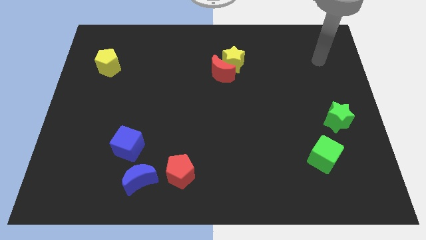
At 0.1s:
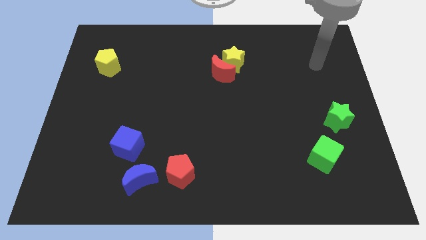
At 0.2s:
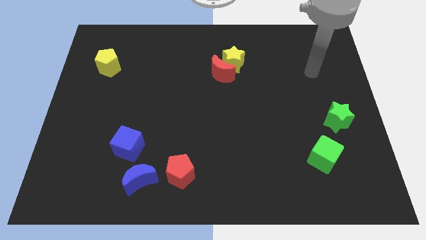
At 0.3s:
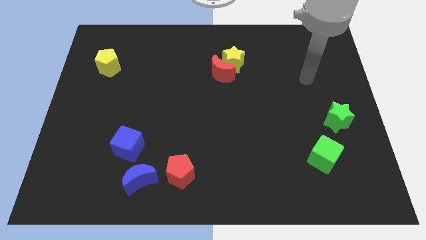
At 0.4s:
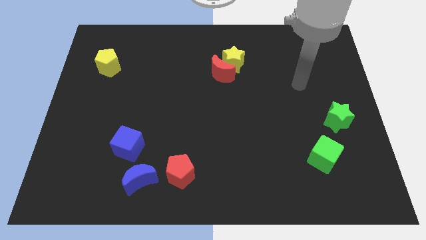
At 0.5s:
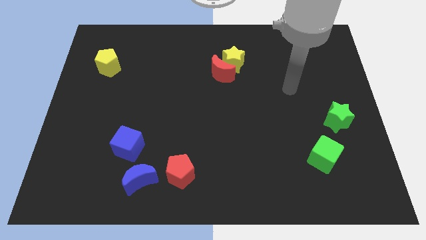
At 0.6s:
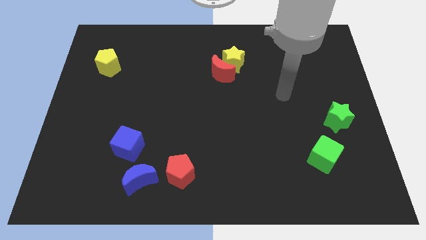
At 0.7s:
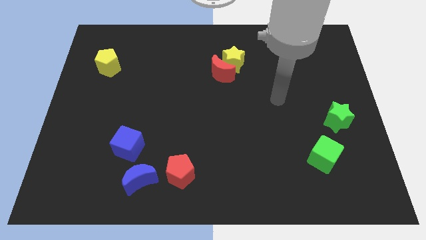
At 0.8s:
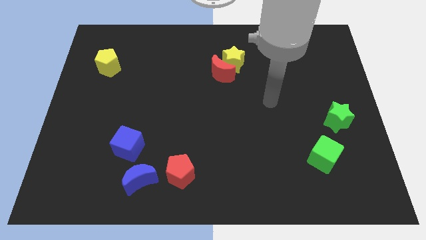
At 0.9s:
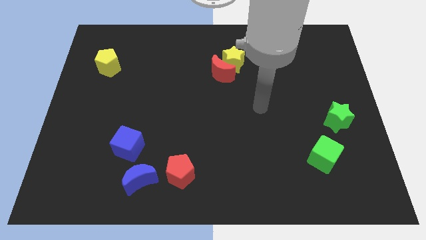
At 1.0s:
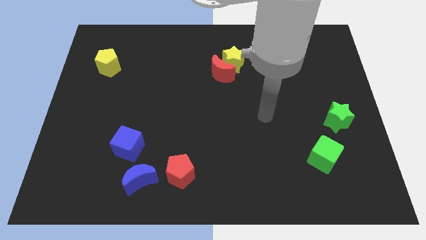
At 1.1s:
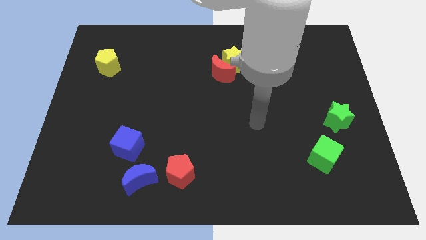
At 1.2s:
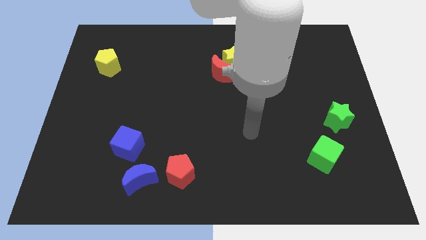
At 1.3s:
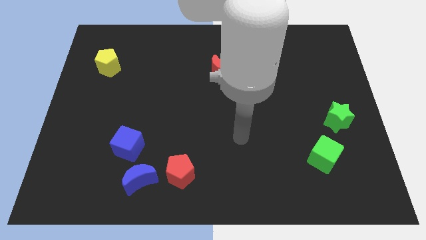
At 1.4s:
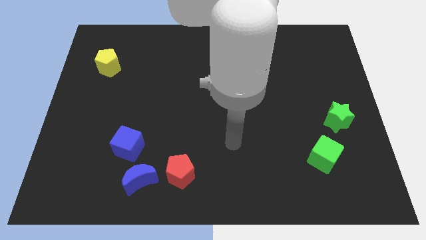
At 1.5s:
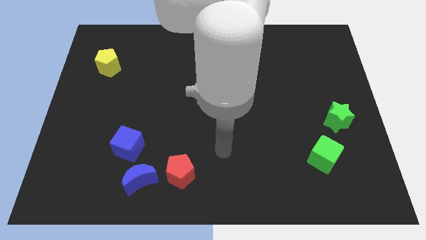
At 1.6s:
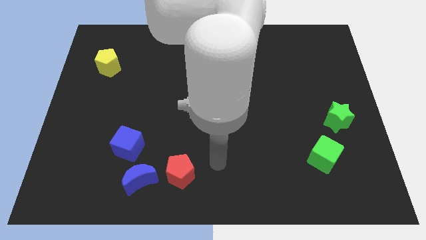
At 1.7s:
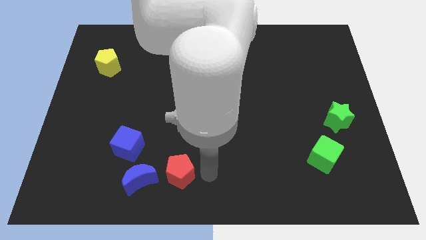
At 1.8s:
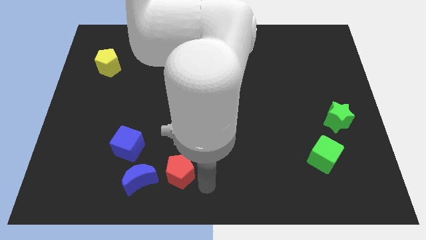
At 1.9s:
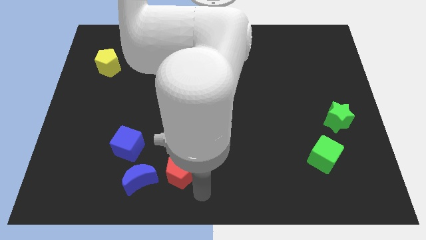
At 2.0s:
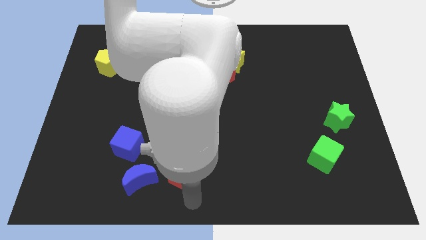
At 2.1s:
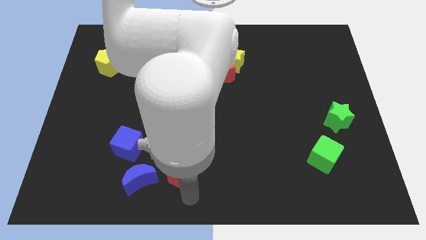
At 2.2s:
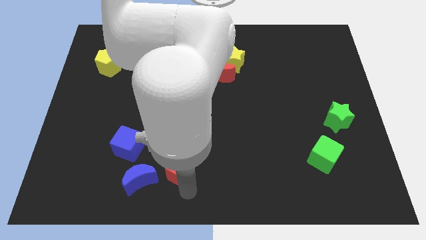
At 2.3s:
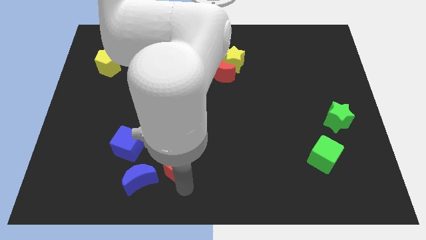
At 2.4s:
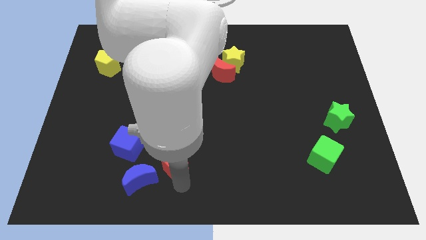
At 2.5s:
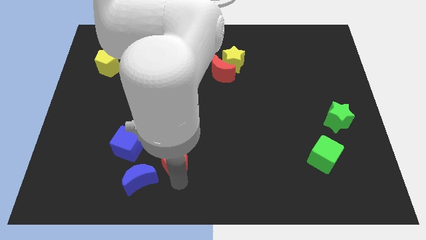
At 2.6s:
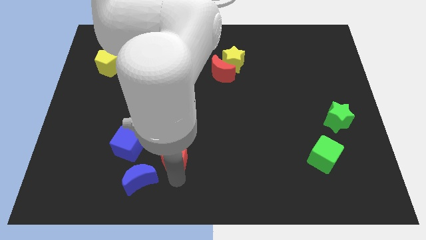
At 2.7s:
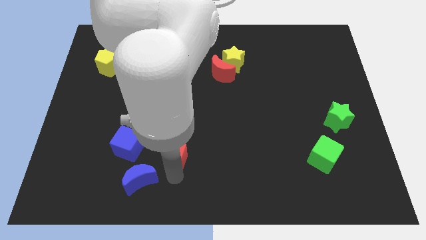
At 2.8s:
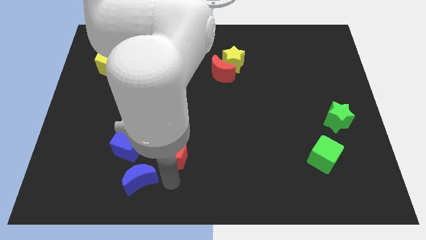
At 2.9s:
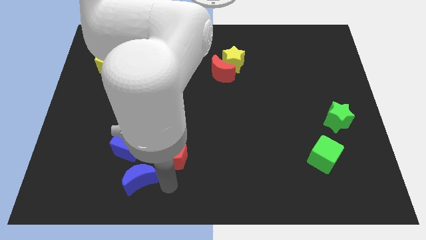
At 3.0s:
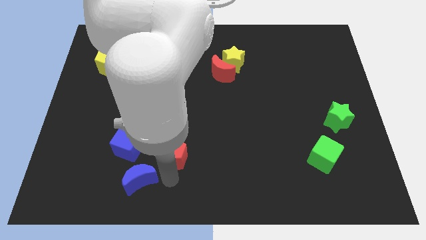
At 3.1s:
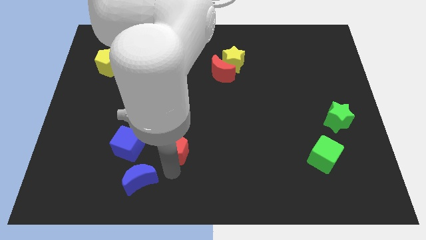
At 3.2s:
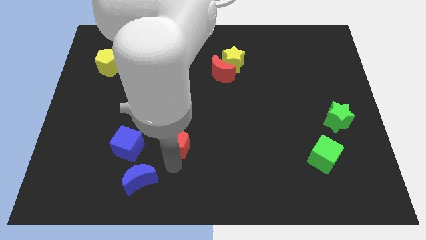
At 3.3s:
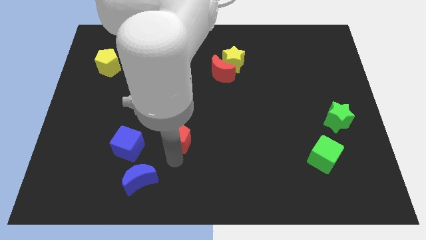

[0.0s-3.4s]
move the red pentagon a little bit upwards

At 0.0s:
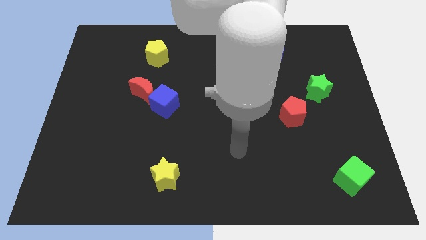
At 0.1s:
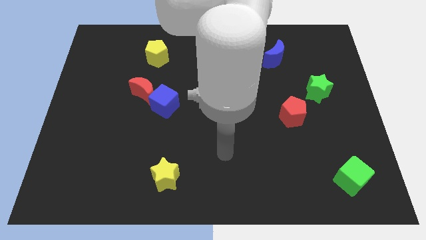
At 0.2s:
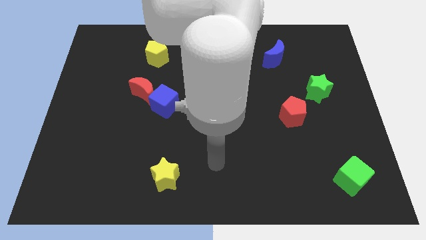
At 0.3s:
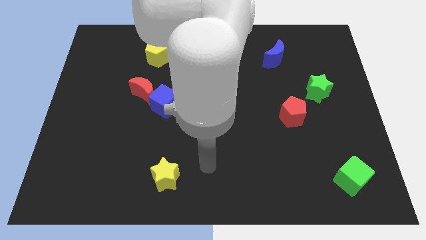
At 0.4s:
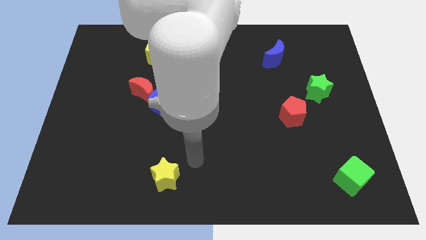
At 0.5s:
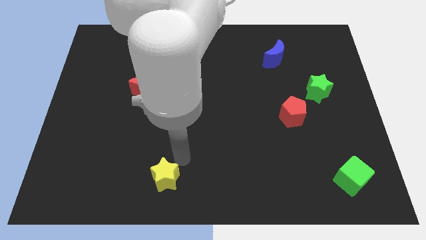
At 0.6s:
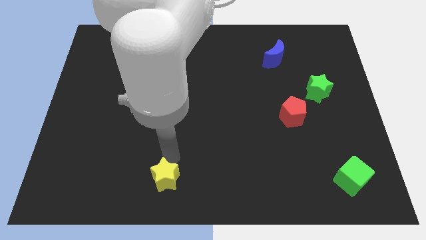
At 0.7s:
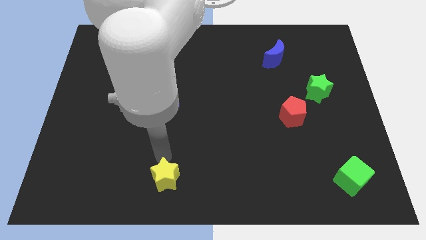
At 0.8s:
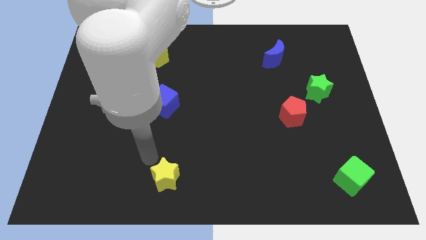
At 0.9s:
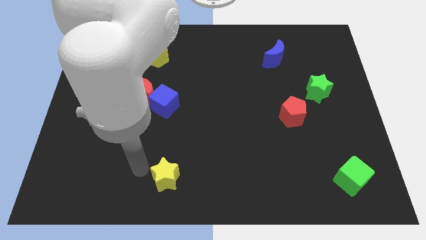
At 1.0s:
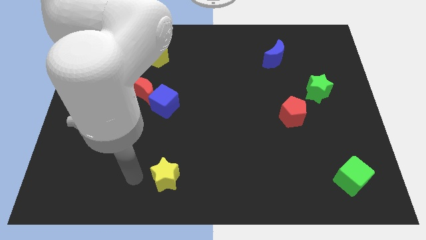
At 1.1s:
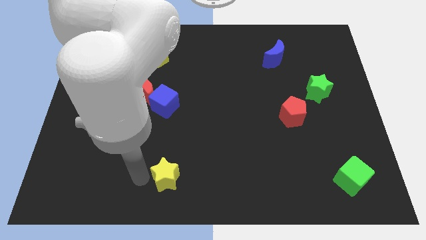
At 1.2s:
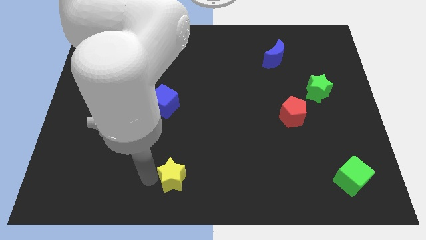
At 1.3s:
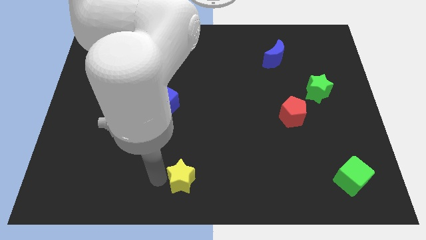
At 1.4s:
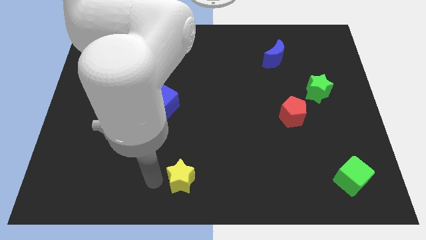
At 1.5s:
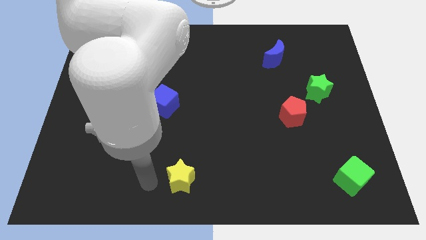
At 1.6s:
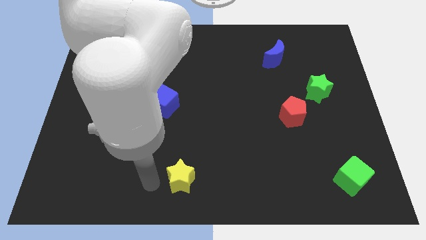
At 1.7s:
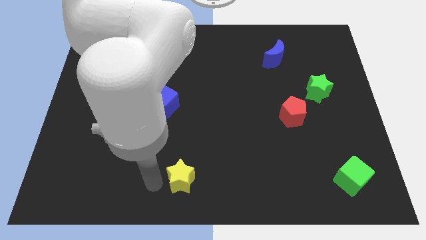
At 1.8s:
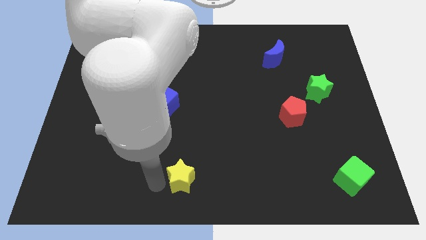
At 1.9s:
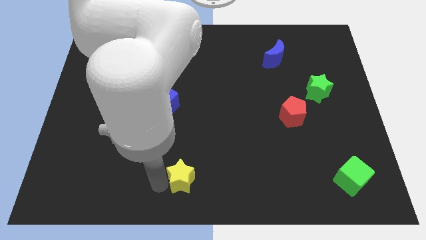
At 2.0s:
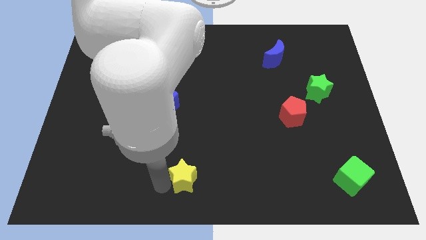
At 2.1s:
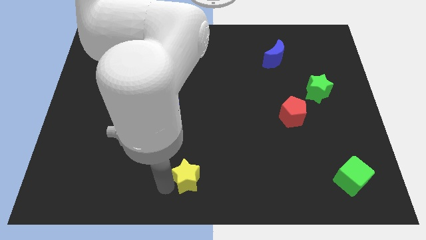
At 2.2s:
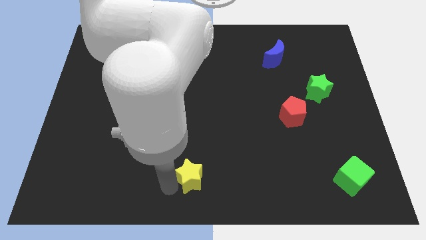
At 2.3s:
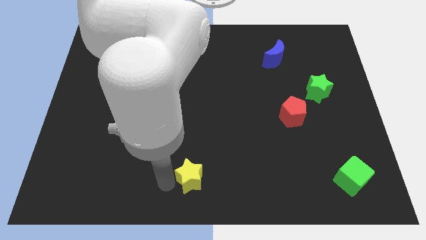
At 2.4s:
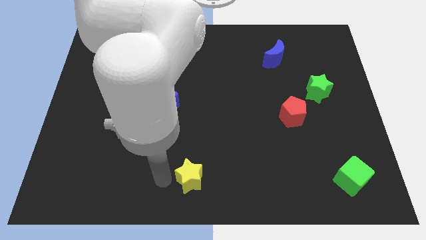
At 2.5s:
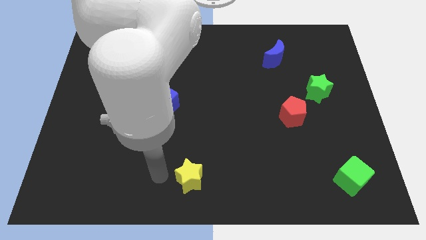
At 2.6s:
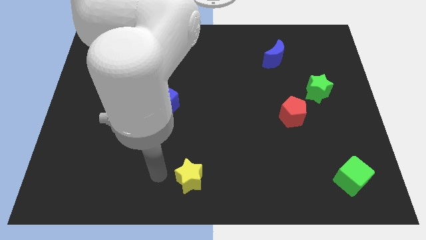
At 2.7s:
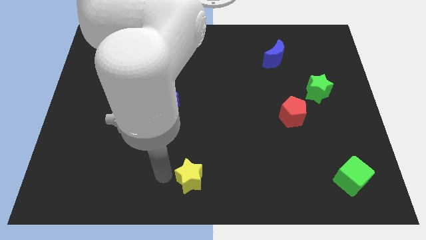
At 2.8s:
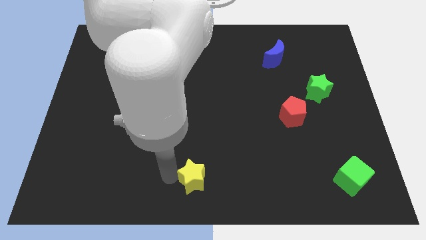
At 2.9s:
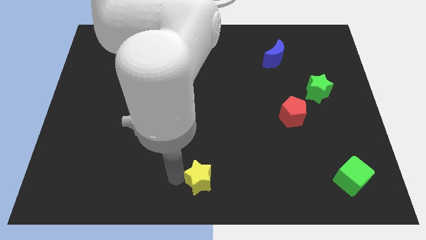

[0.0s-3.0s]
push the yellow star somewhat to the right

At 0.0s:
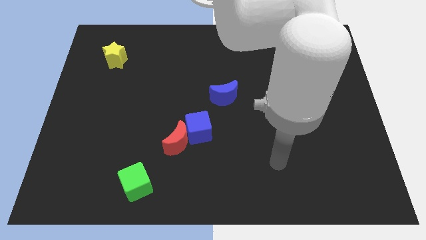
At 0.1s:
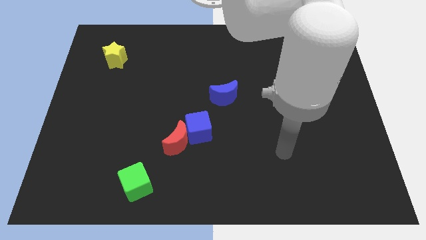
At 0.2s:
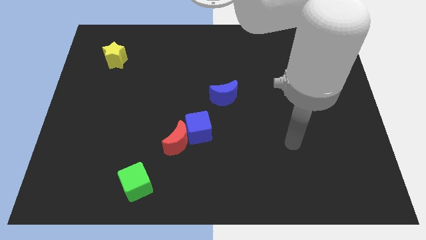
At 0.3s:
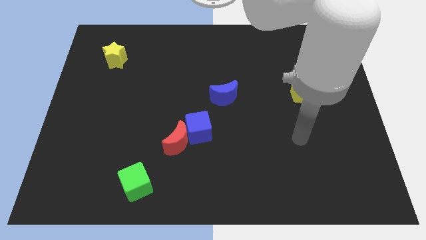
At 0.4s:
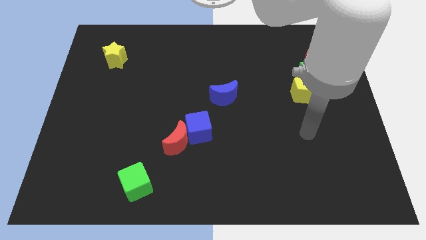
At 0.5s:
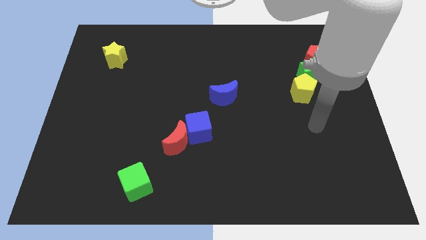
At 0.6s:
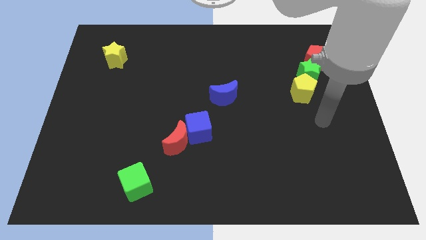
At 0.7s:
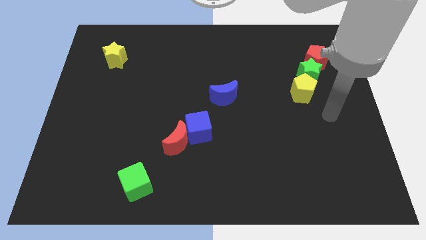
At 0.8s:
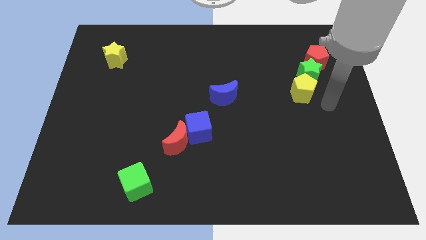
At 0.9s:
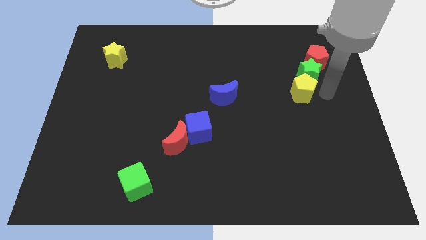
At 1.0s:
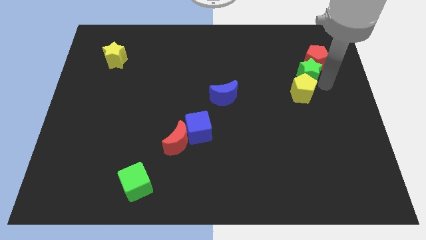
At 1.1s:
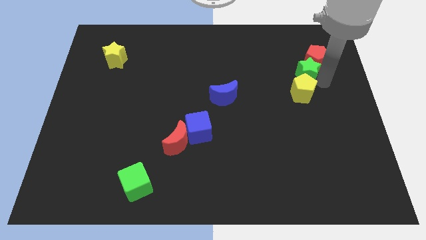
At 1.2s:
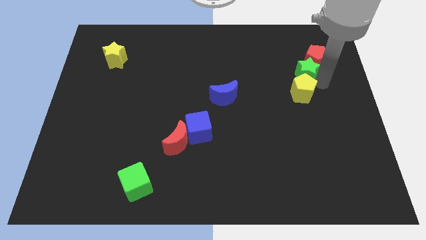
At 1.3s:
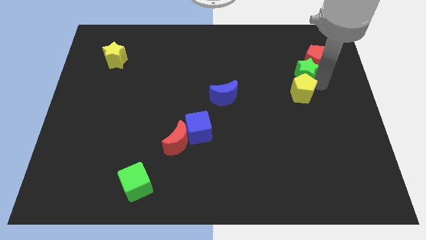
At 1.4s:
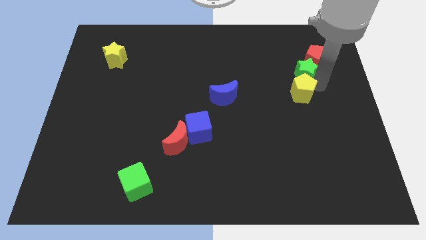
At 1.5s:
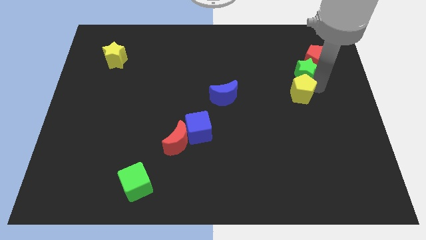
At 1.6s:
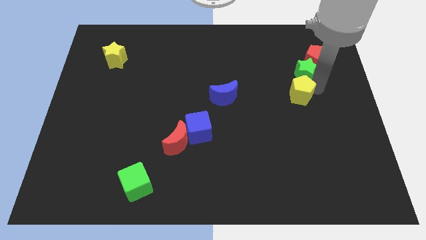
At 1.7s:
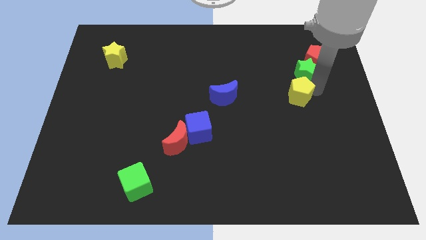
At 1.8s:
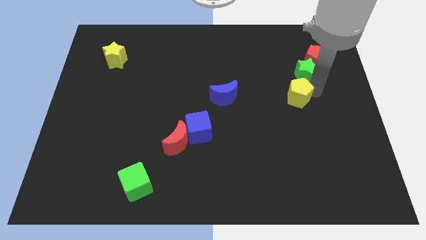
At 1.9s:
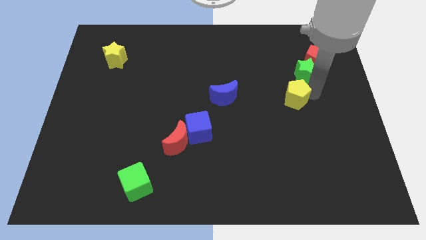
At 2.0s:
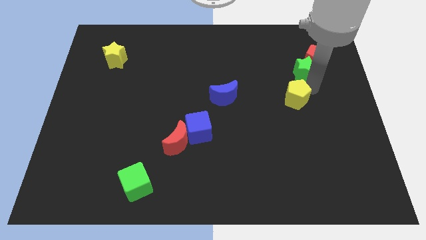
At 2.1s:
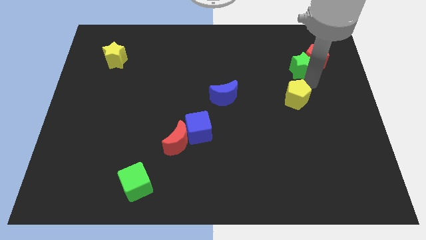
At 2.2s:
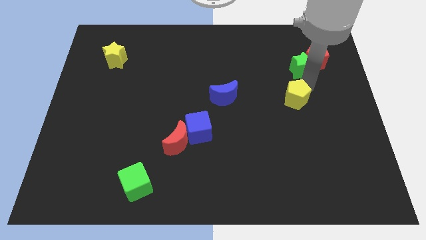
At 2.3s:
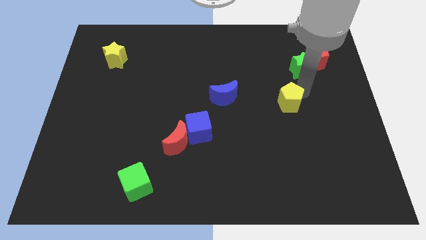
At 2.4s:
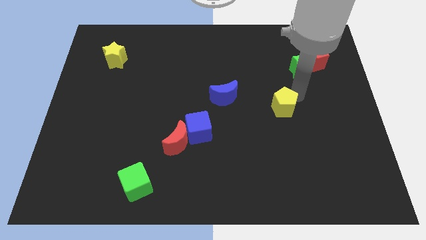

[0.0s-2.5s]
slightly push the yellow pentagon downwards and then to the left
